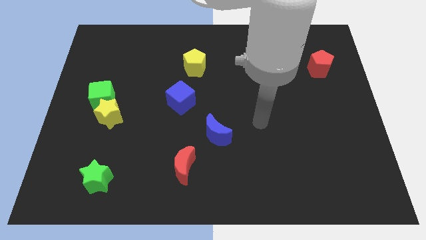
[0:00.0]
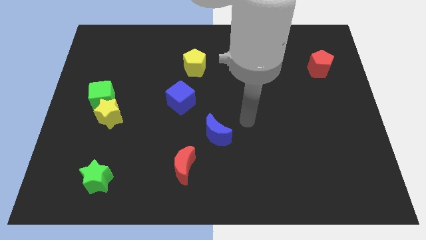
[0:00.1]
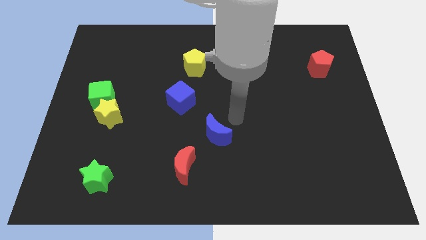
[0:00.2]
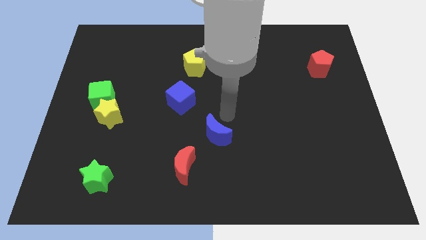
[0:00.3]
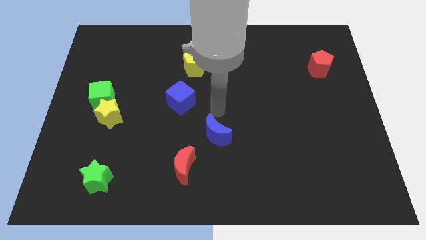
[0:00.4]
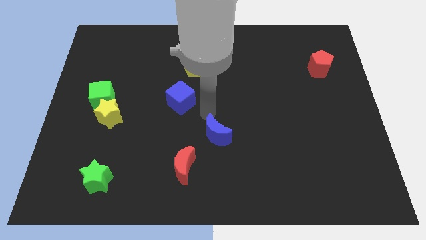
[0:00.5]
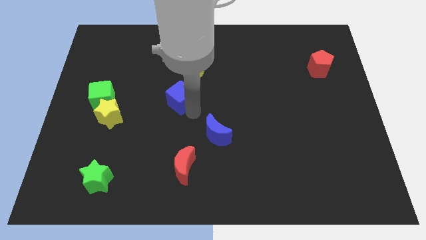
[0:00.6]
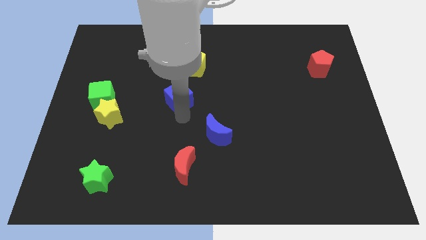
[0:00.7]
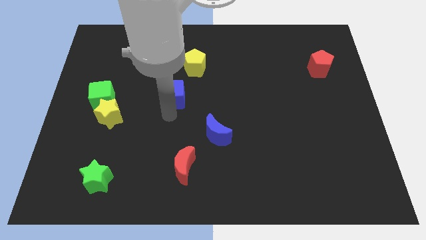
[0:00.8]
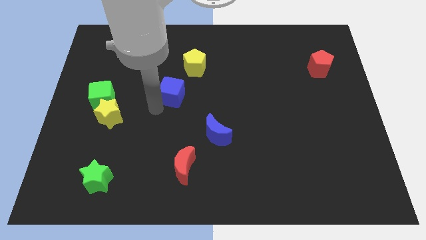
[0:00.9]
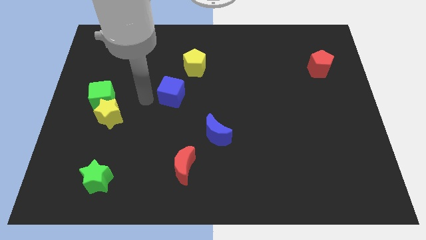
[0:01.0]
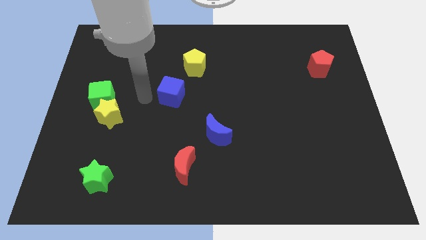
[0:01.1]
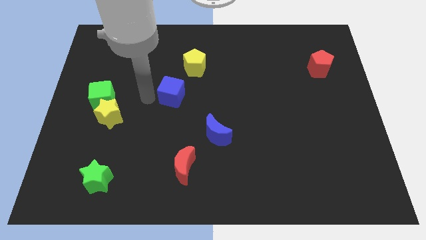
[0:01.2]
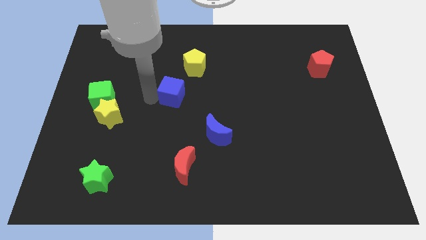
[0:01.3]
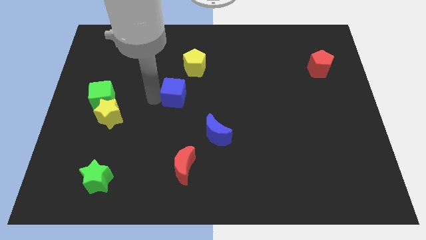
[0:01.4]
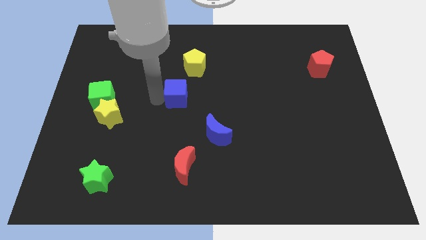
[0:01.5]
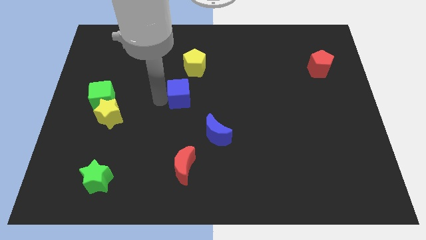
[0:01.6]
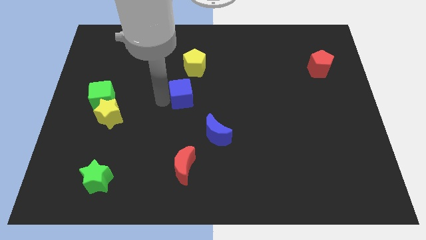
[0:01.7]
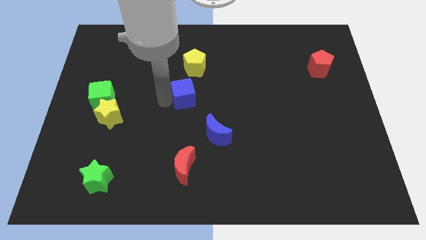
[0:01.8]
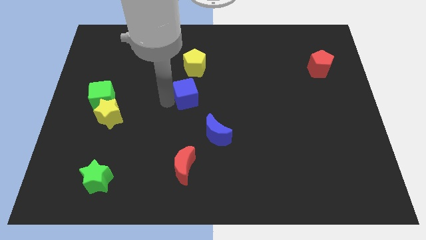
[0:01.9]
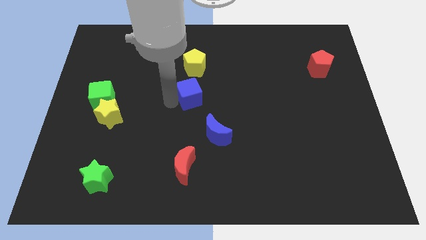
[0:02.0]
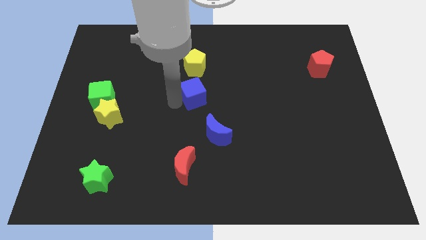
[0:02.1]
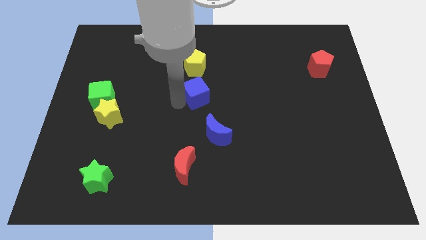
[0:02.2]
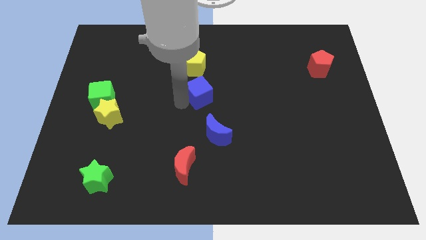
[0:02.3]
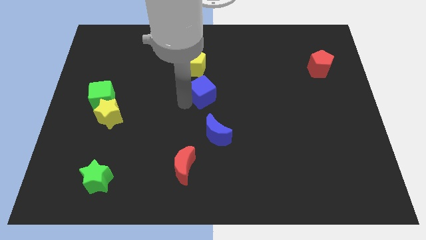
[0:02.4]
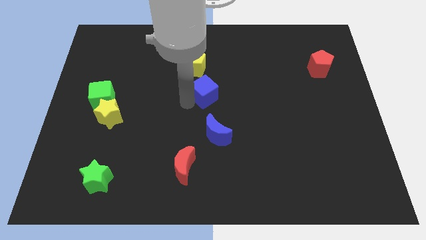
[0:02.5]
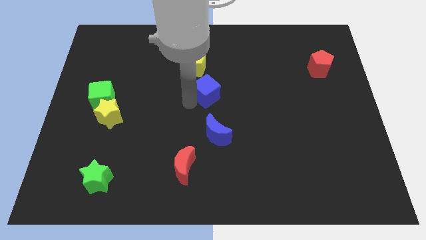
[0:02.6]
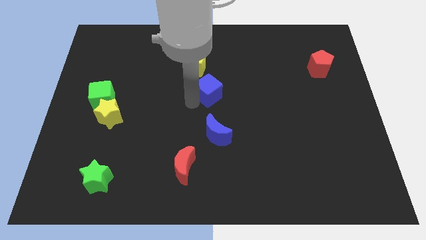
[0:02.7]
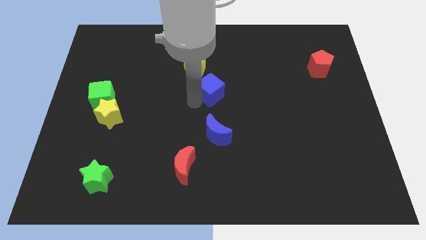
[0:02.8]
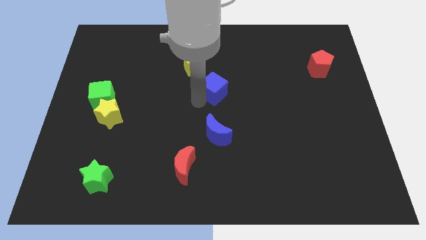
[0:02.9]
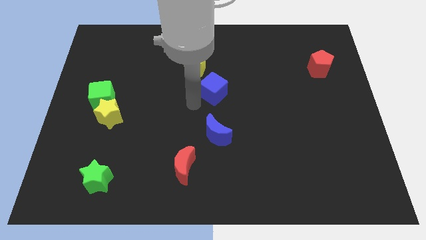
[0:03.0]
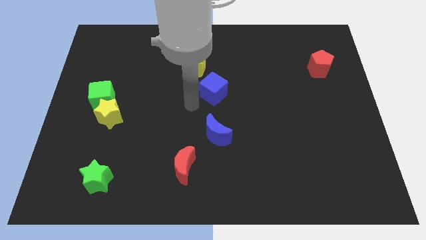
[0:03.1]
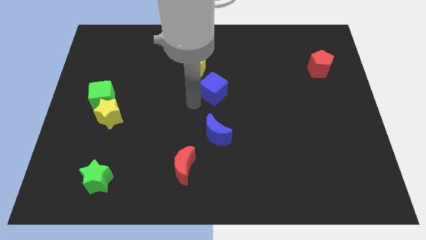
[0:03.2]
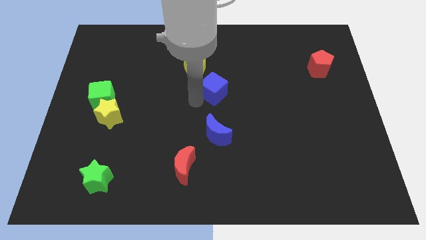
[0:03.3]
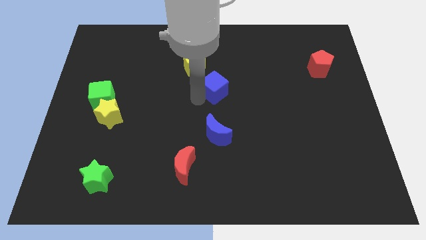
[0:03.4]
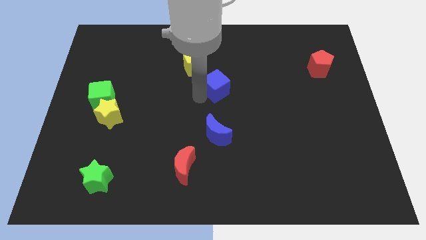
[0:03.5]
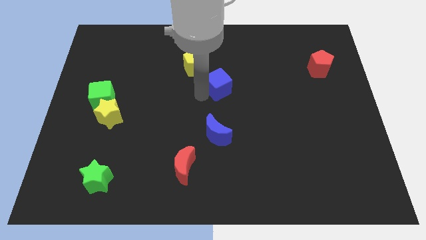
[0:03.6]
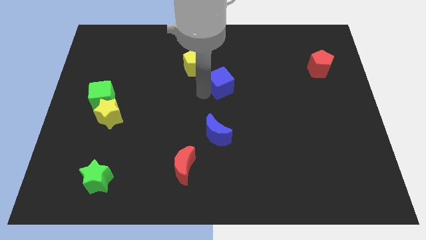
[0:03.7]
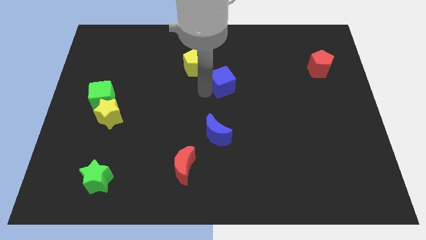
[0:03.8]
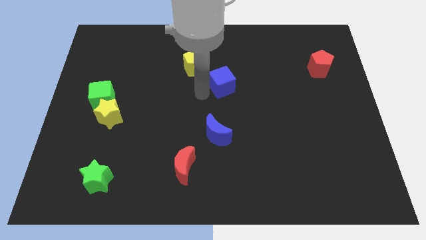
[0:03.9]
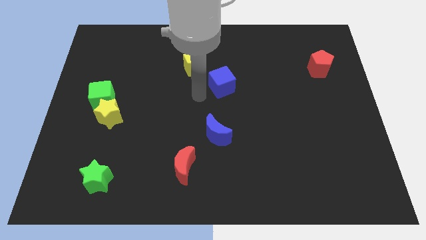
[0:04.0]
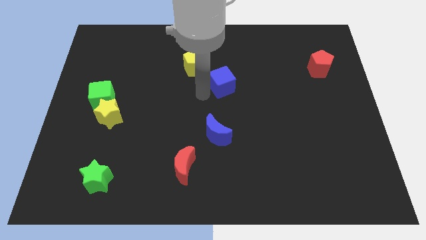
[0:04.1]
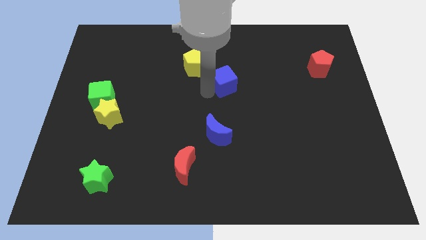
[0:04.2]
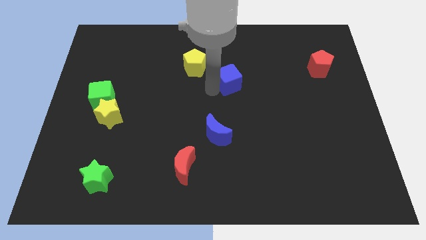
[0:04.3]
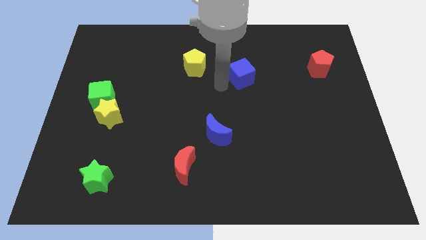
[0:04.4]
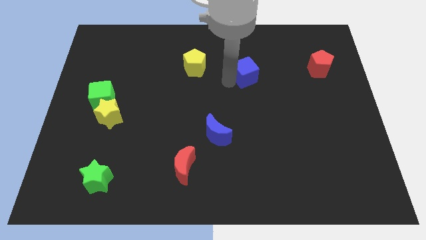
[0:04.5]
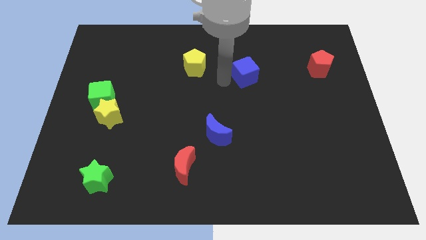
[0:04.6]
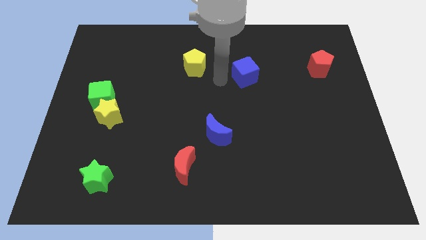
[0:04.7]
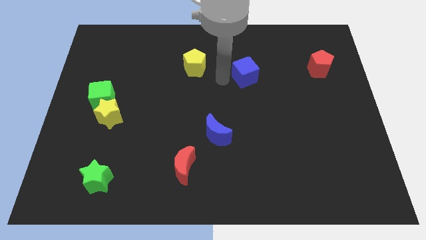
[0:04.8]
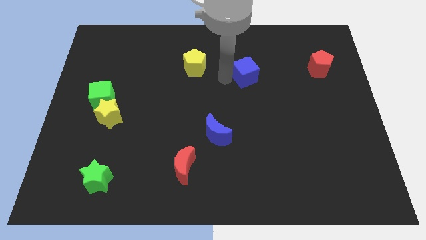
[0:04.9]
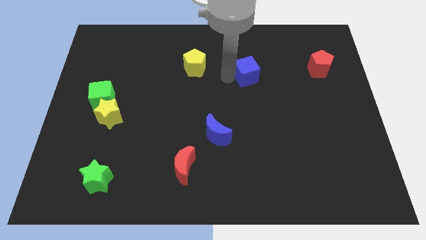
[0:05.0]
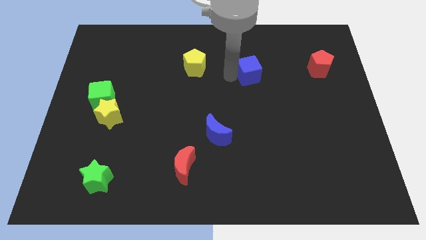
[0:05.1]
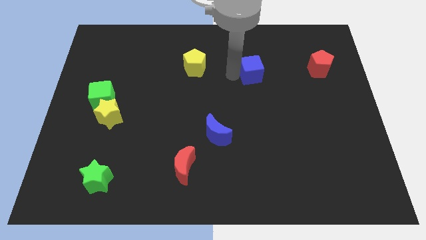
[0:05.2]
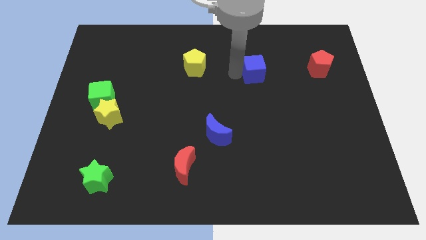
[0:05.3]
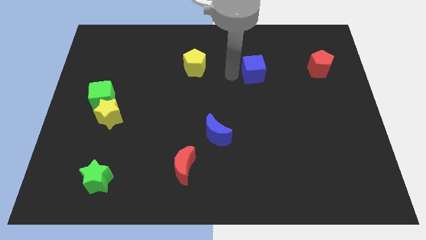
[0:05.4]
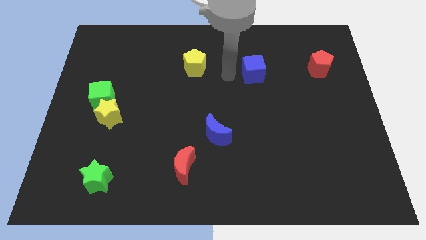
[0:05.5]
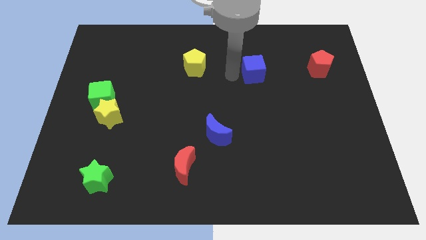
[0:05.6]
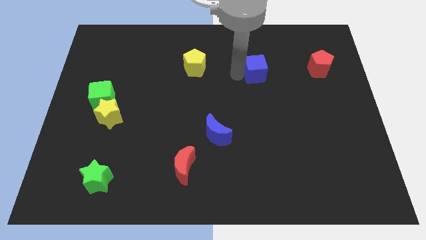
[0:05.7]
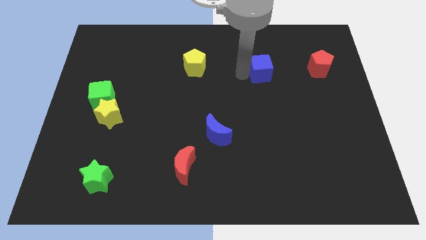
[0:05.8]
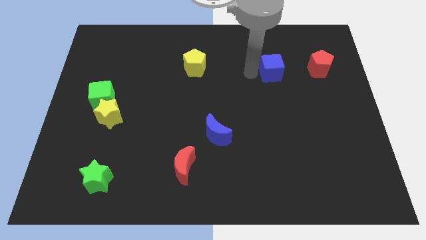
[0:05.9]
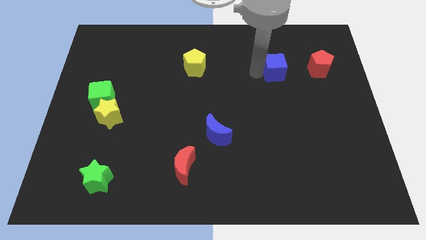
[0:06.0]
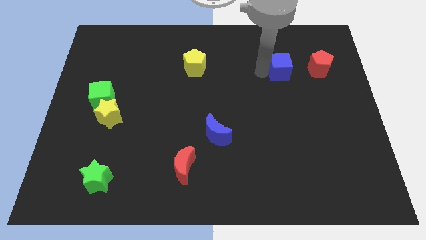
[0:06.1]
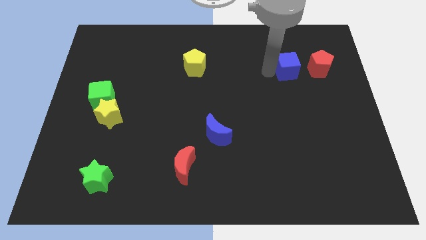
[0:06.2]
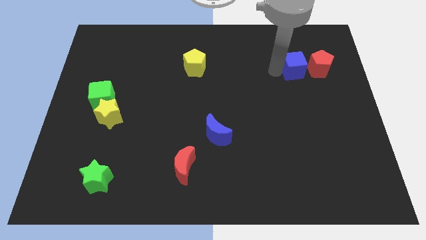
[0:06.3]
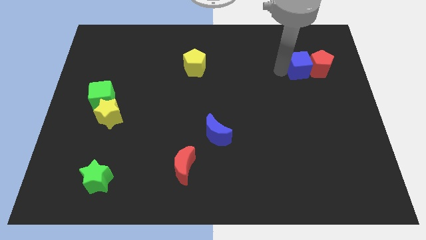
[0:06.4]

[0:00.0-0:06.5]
put the blue cube towards the red pentagon
